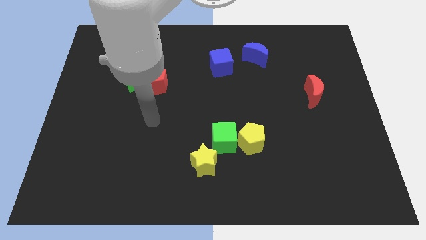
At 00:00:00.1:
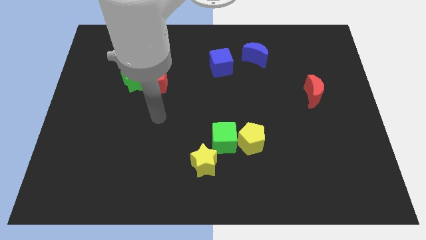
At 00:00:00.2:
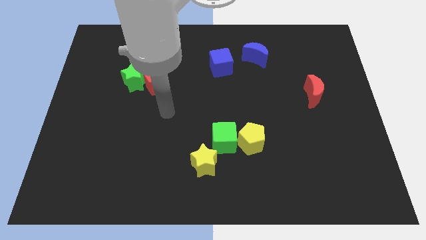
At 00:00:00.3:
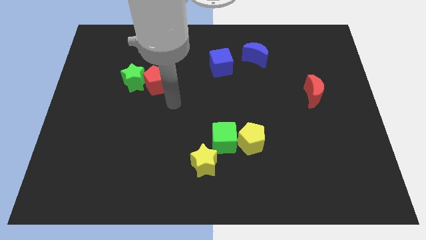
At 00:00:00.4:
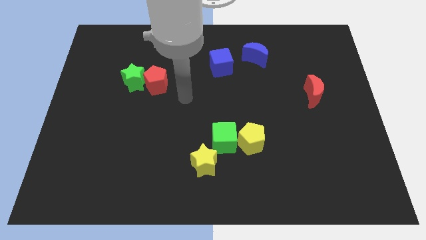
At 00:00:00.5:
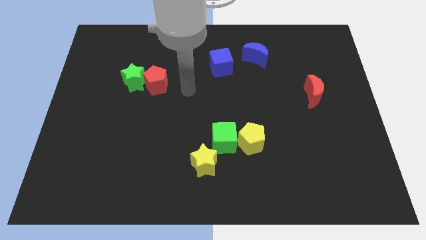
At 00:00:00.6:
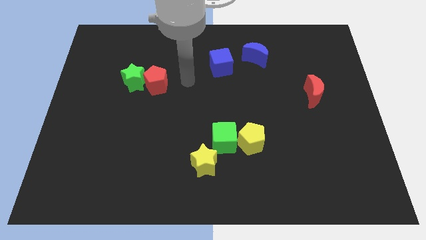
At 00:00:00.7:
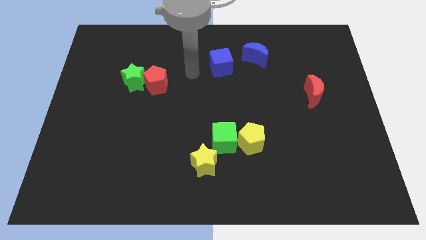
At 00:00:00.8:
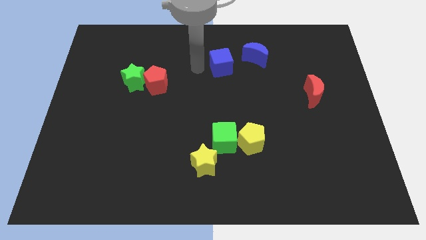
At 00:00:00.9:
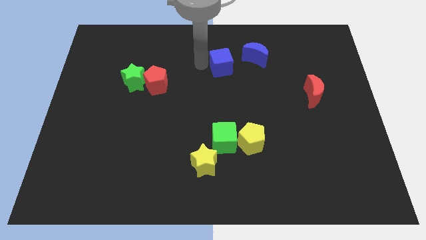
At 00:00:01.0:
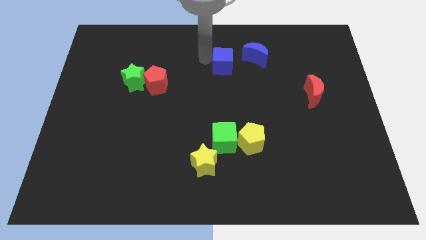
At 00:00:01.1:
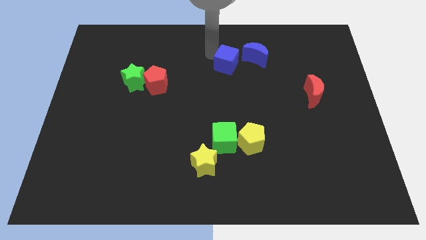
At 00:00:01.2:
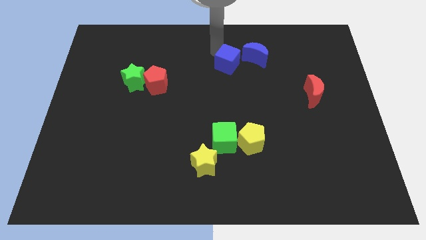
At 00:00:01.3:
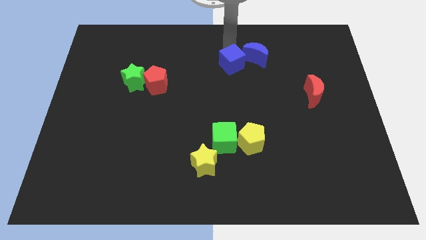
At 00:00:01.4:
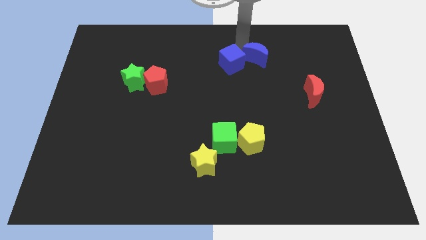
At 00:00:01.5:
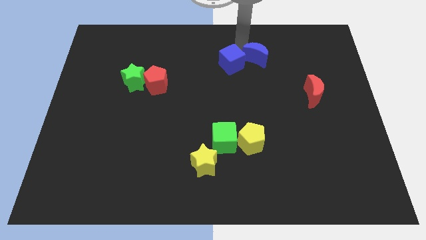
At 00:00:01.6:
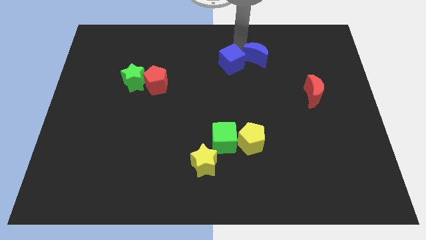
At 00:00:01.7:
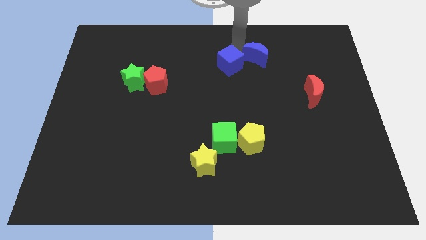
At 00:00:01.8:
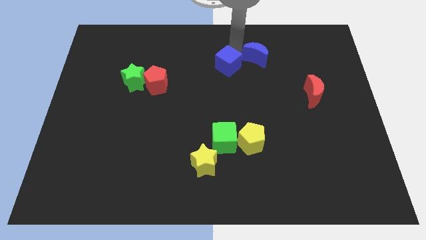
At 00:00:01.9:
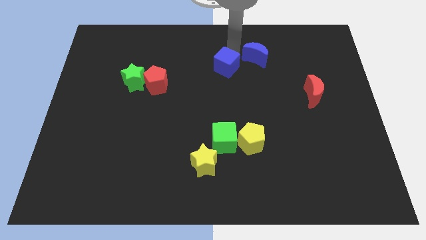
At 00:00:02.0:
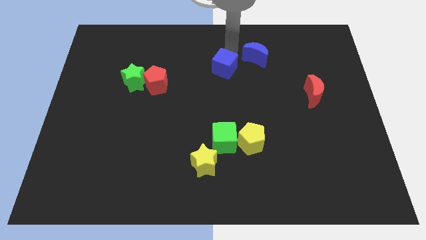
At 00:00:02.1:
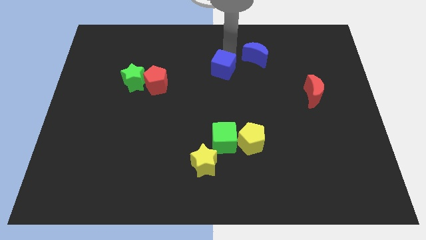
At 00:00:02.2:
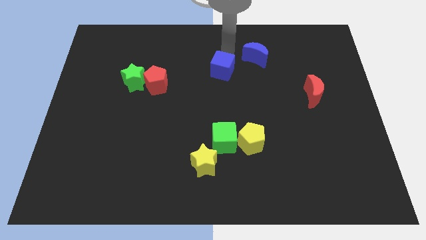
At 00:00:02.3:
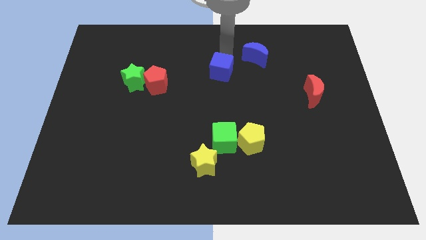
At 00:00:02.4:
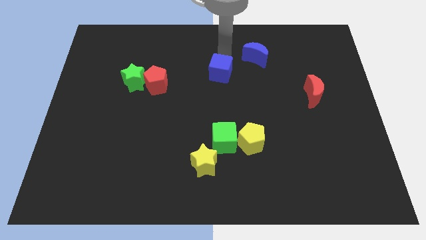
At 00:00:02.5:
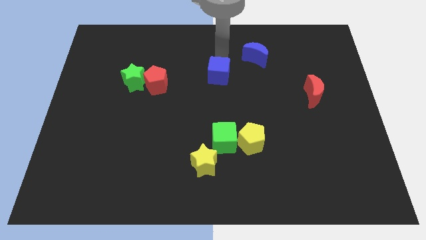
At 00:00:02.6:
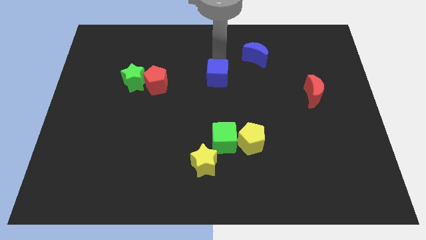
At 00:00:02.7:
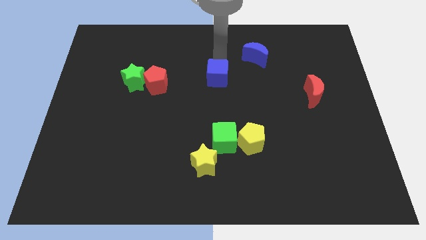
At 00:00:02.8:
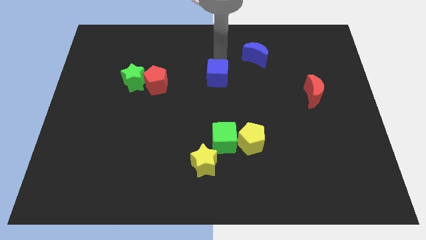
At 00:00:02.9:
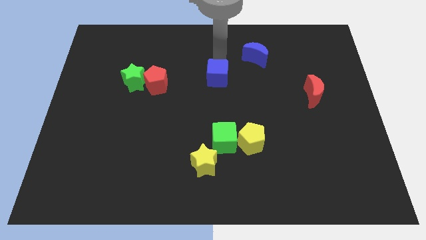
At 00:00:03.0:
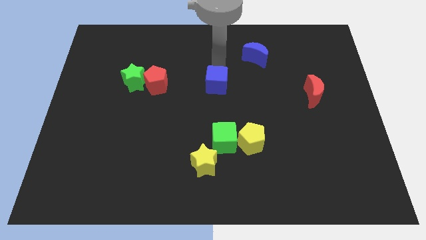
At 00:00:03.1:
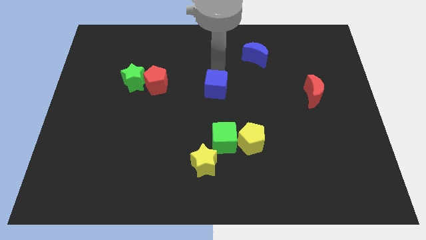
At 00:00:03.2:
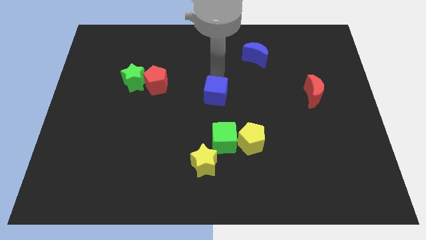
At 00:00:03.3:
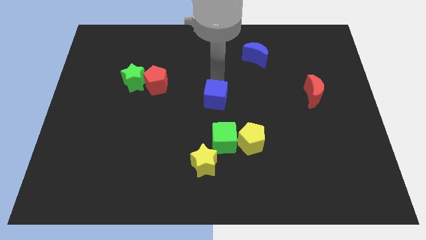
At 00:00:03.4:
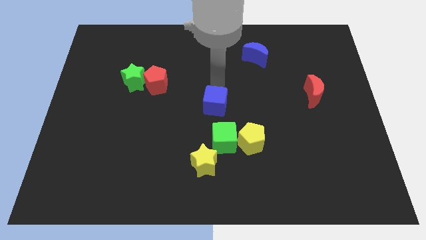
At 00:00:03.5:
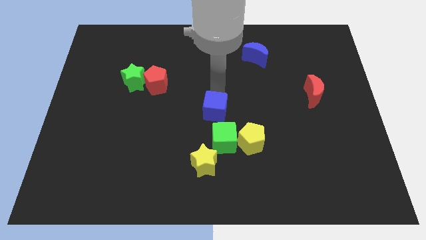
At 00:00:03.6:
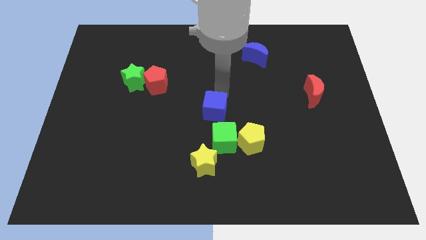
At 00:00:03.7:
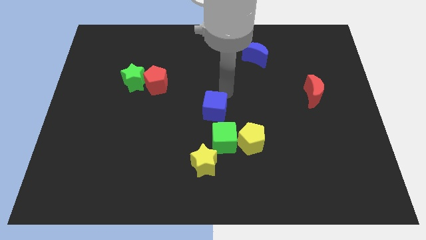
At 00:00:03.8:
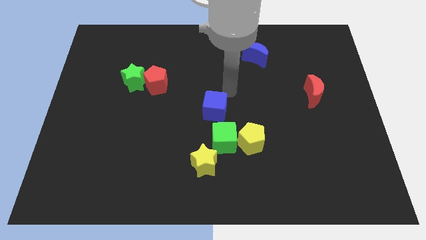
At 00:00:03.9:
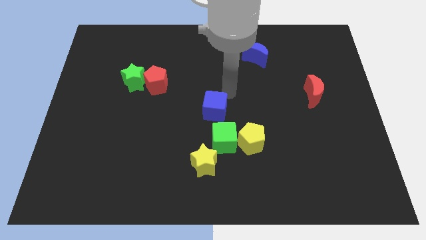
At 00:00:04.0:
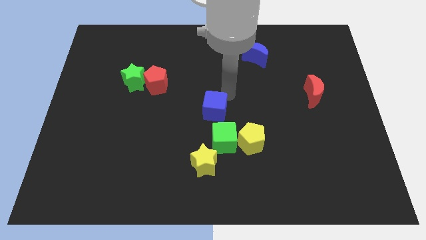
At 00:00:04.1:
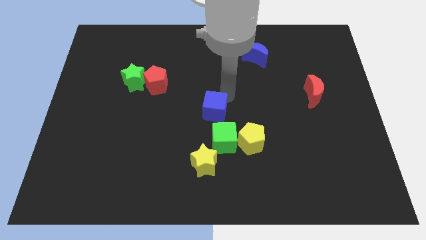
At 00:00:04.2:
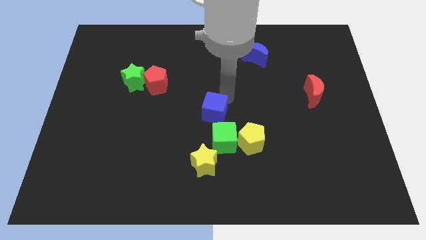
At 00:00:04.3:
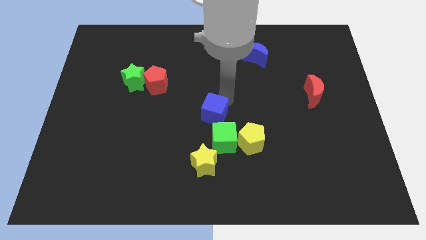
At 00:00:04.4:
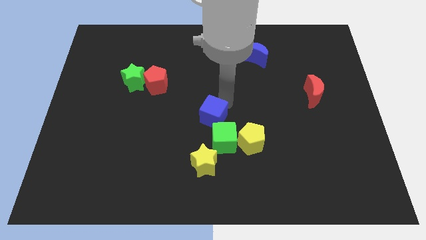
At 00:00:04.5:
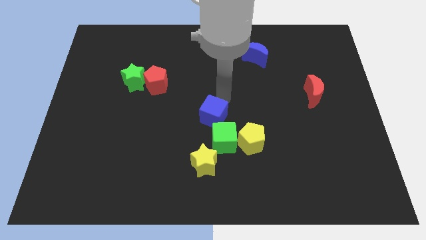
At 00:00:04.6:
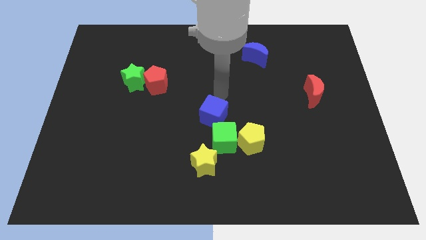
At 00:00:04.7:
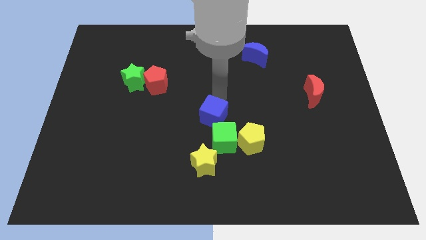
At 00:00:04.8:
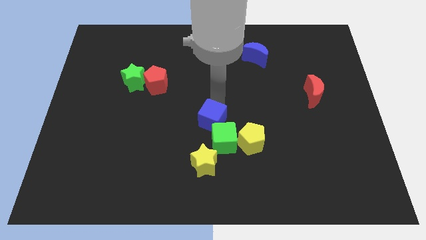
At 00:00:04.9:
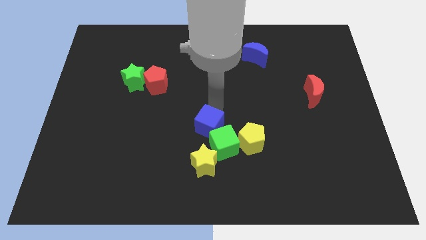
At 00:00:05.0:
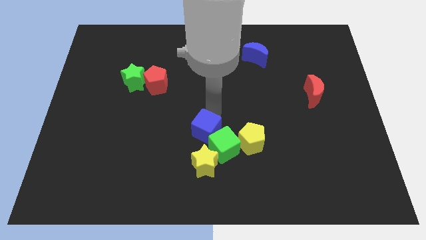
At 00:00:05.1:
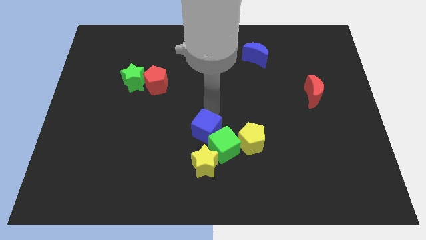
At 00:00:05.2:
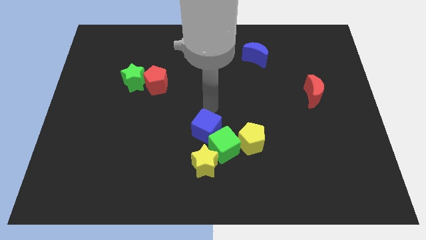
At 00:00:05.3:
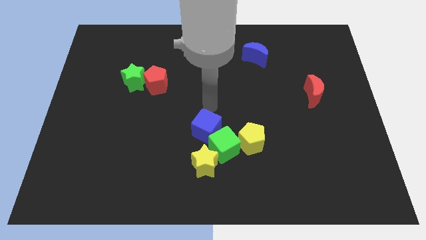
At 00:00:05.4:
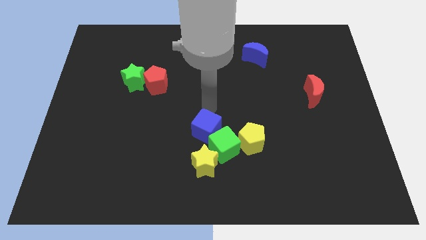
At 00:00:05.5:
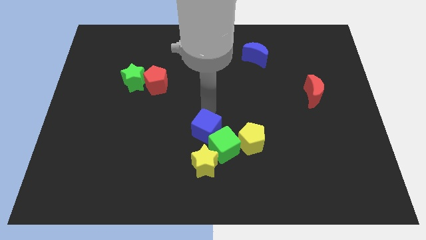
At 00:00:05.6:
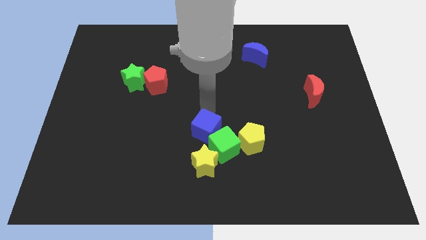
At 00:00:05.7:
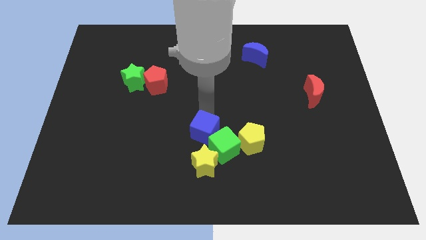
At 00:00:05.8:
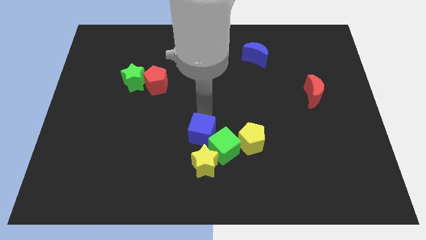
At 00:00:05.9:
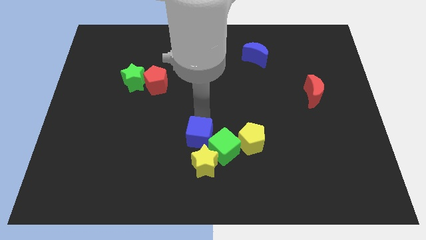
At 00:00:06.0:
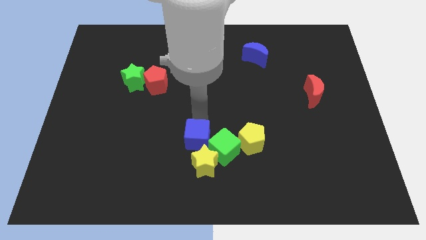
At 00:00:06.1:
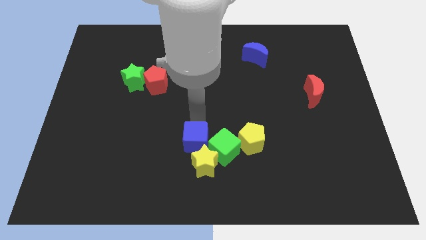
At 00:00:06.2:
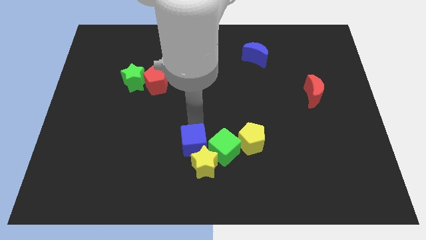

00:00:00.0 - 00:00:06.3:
slide the blue cube to the yellow star
